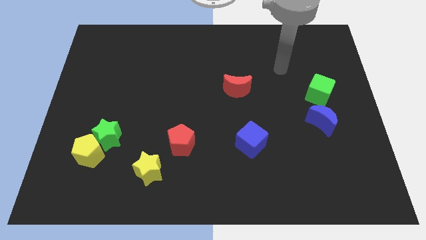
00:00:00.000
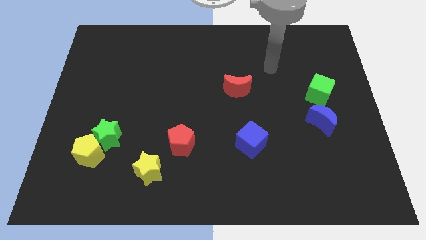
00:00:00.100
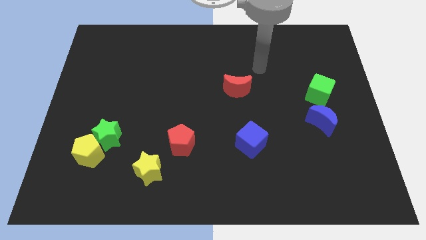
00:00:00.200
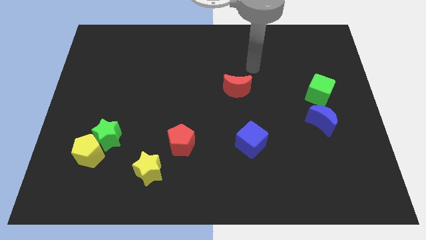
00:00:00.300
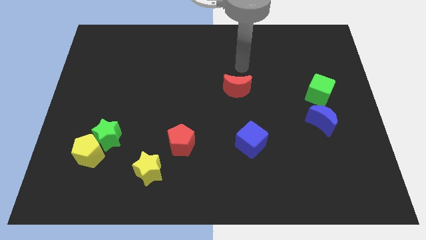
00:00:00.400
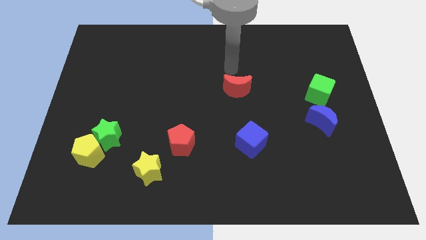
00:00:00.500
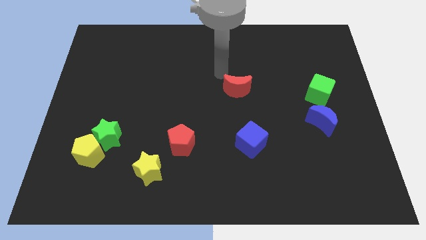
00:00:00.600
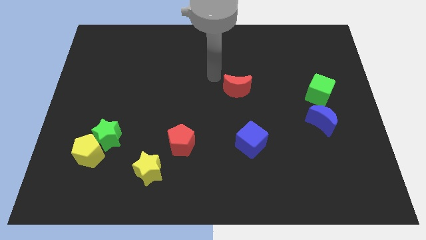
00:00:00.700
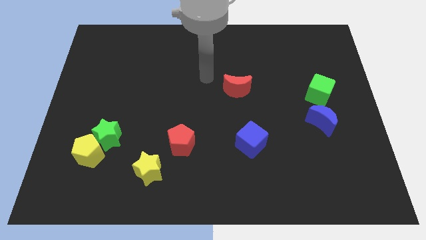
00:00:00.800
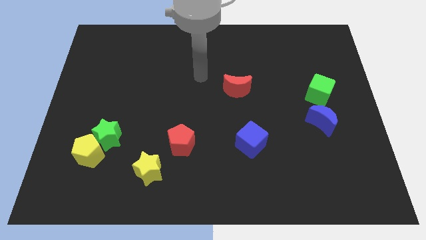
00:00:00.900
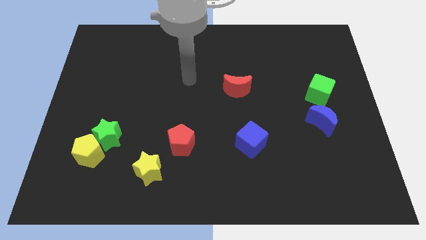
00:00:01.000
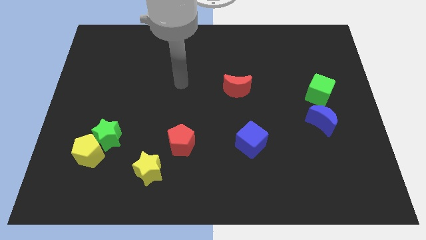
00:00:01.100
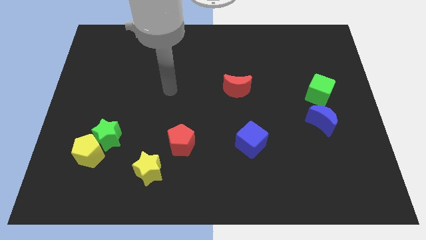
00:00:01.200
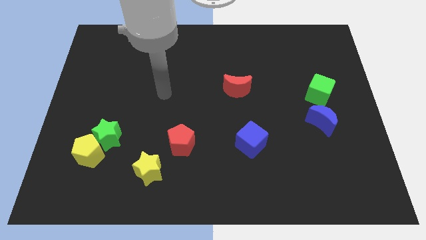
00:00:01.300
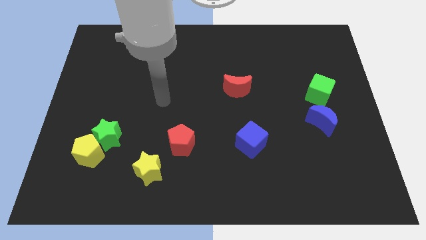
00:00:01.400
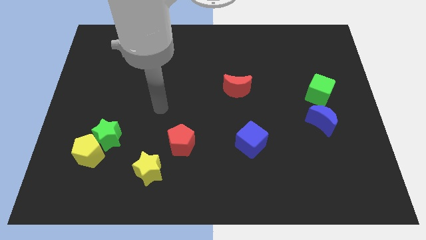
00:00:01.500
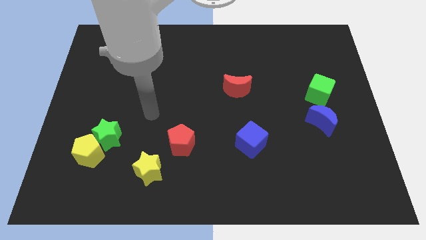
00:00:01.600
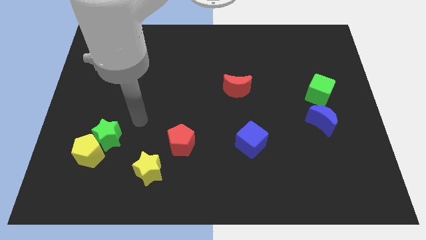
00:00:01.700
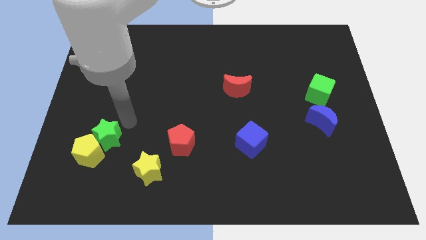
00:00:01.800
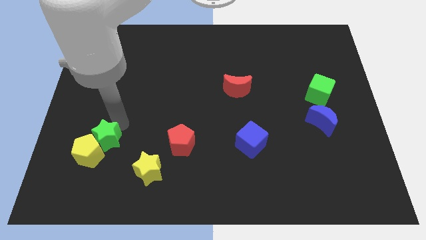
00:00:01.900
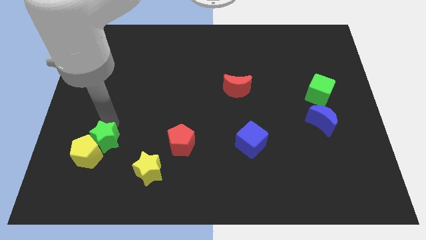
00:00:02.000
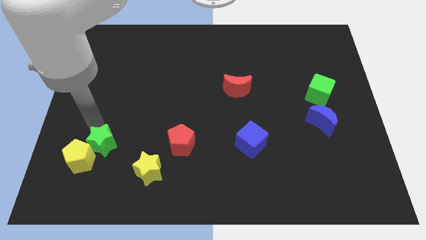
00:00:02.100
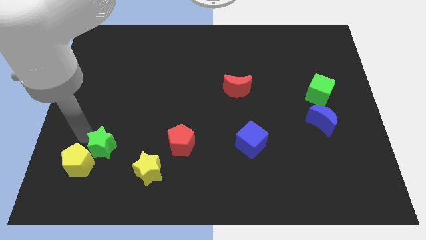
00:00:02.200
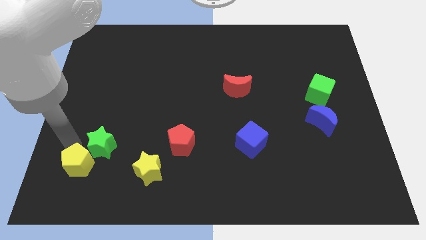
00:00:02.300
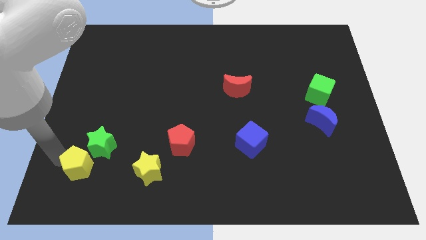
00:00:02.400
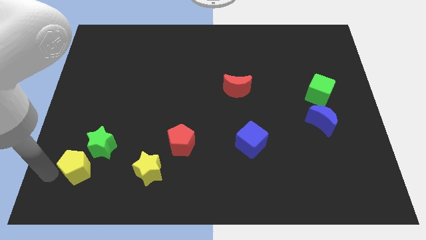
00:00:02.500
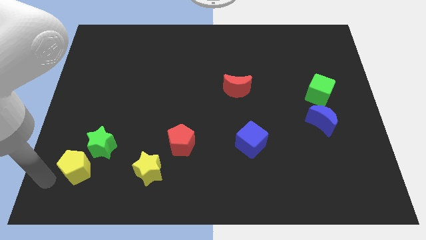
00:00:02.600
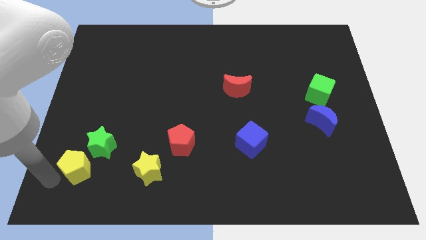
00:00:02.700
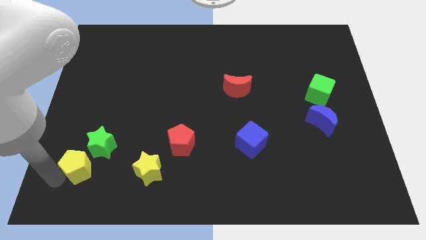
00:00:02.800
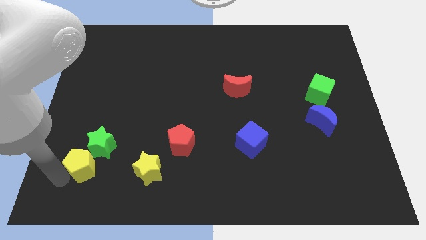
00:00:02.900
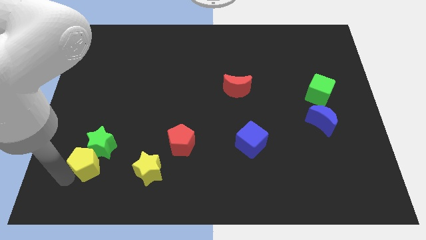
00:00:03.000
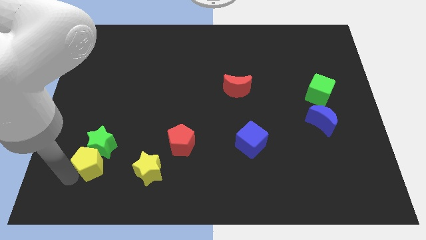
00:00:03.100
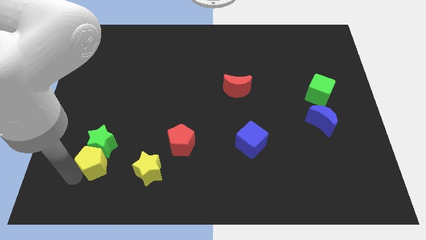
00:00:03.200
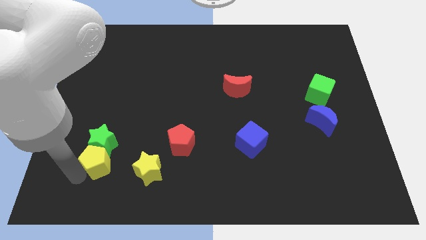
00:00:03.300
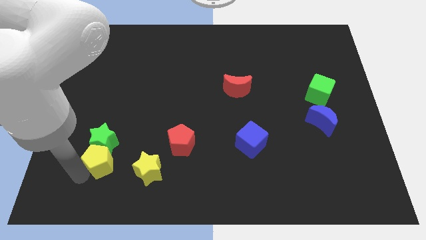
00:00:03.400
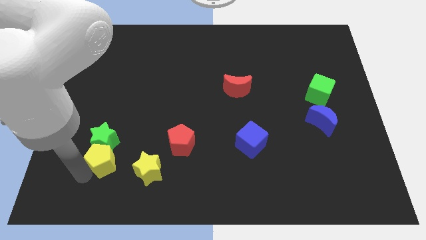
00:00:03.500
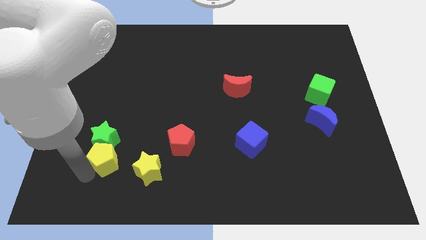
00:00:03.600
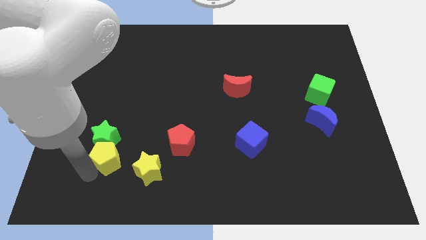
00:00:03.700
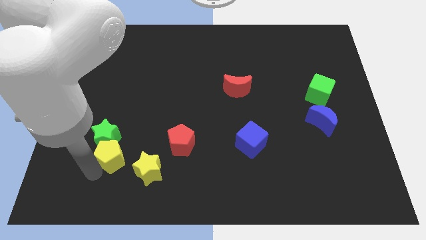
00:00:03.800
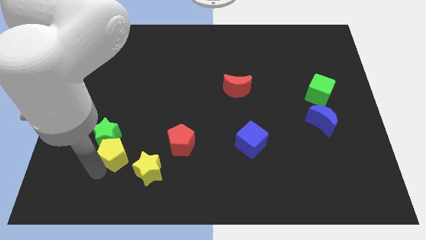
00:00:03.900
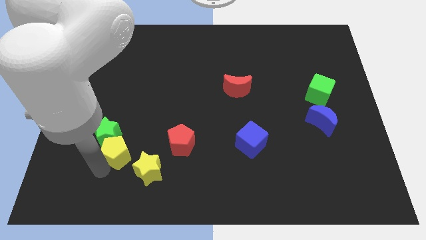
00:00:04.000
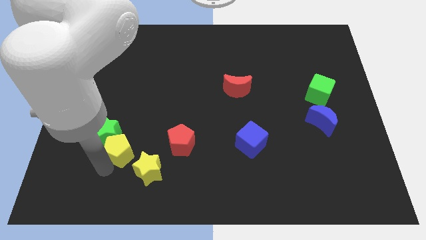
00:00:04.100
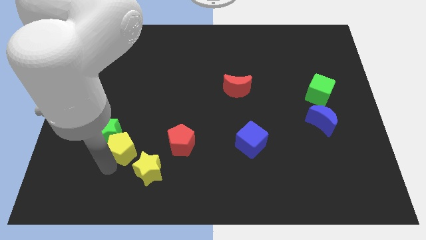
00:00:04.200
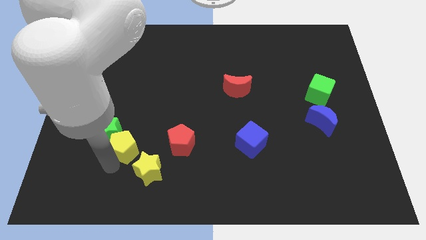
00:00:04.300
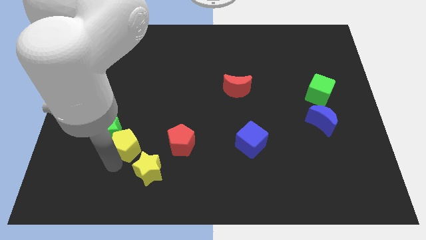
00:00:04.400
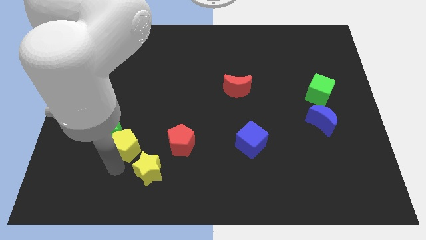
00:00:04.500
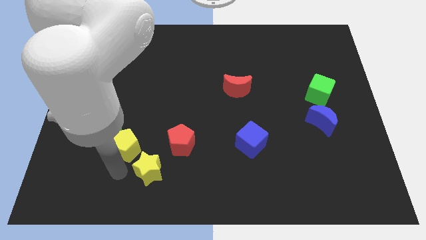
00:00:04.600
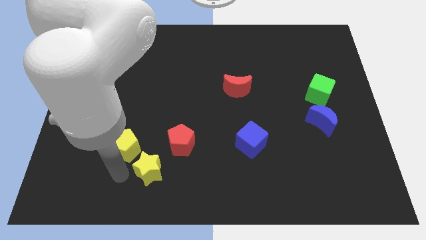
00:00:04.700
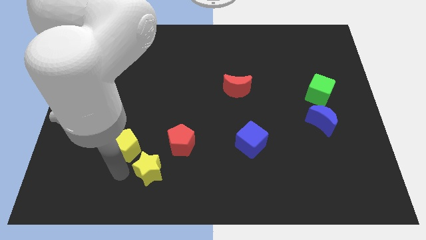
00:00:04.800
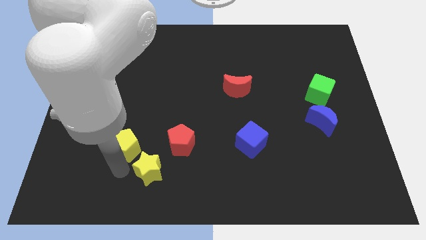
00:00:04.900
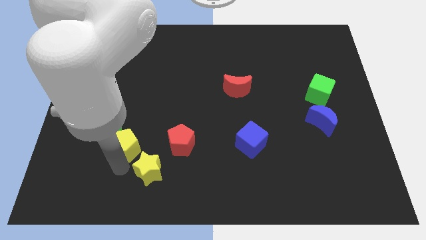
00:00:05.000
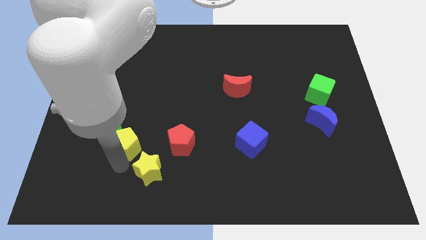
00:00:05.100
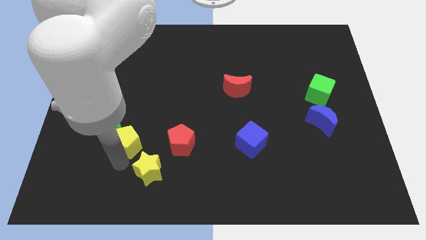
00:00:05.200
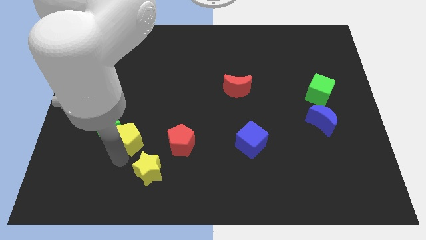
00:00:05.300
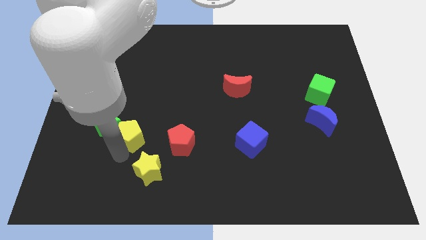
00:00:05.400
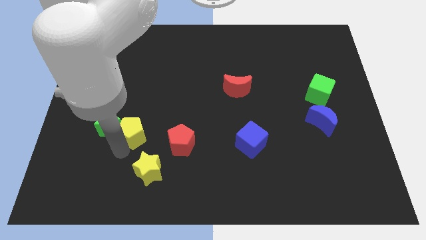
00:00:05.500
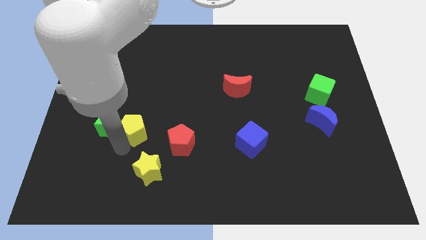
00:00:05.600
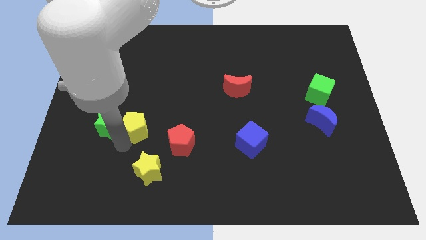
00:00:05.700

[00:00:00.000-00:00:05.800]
put the yellow pentagon to the top right of the green star

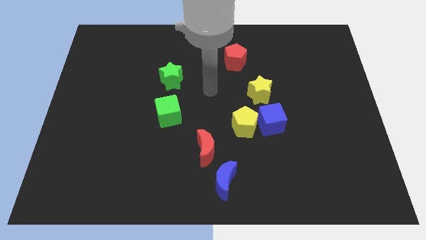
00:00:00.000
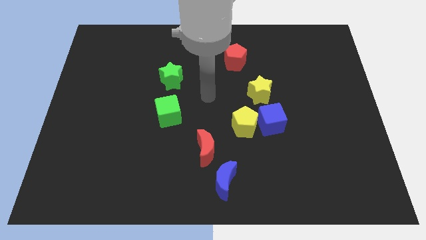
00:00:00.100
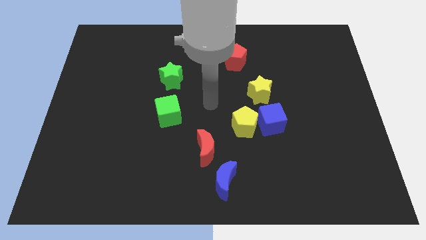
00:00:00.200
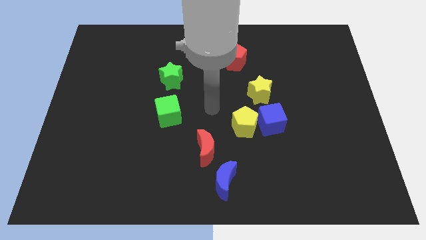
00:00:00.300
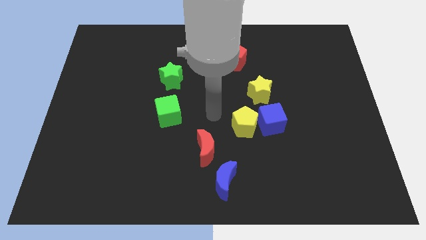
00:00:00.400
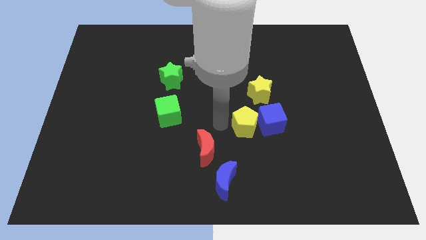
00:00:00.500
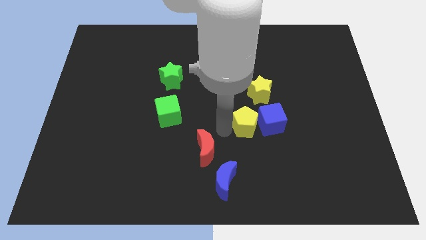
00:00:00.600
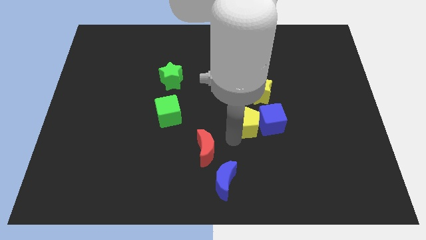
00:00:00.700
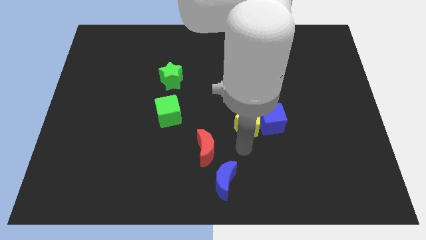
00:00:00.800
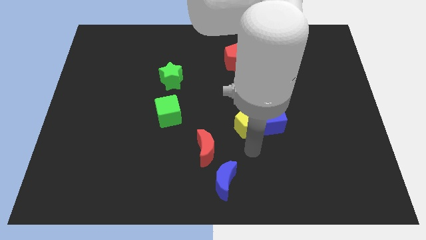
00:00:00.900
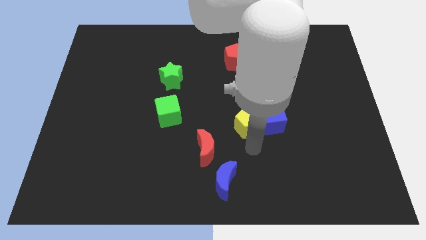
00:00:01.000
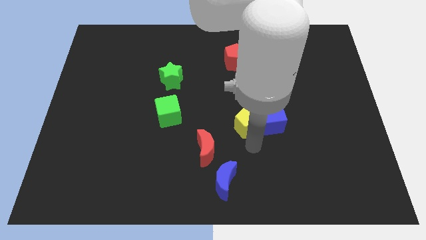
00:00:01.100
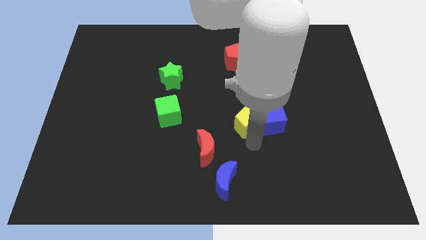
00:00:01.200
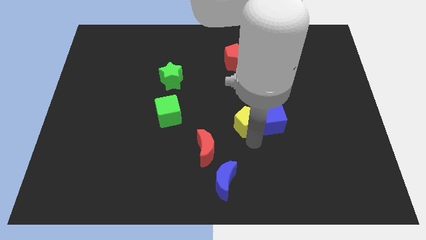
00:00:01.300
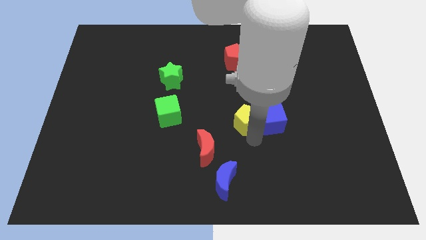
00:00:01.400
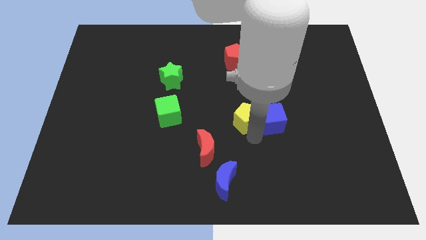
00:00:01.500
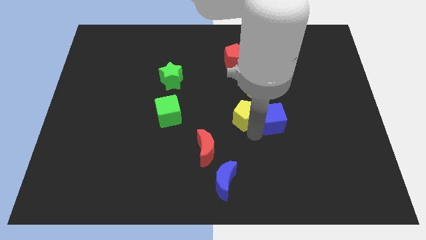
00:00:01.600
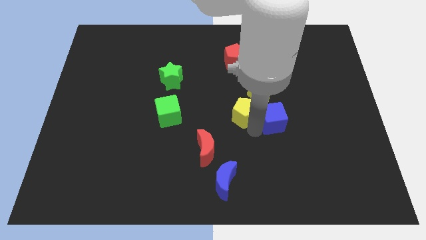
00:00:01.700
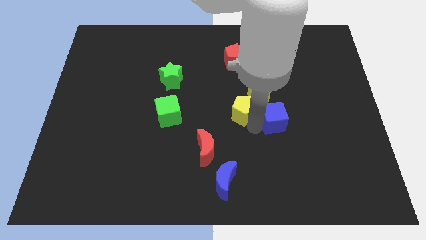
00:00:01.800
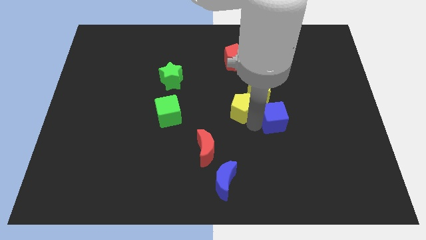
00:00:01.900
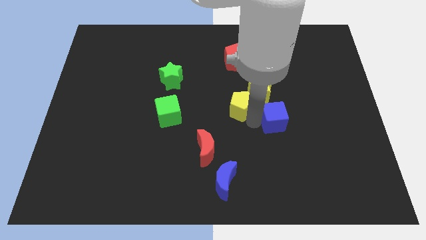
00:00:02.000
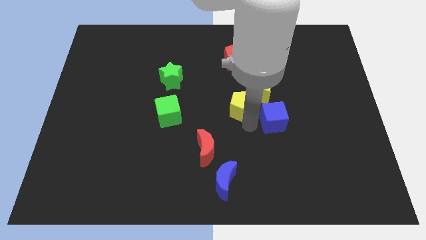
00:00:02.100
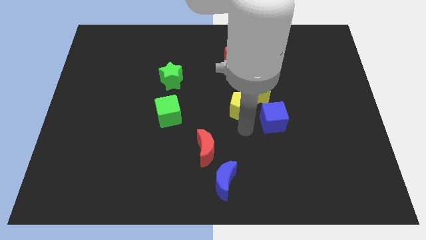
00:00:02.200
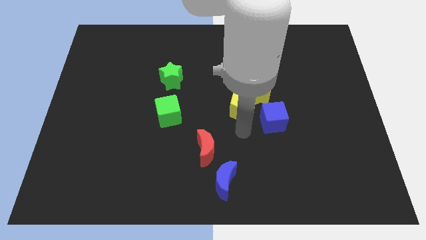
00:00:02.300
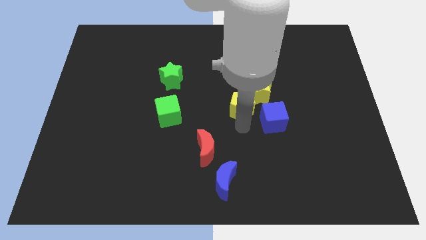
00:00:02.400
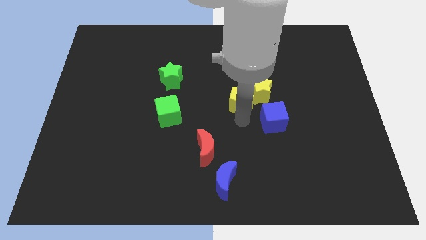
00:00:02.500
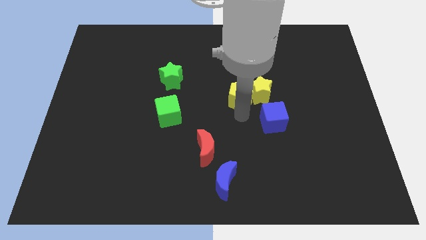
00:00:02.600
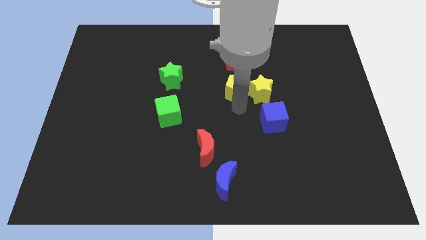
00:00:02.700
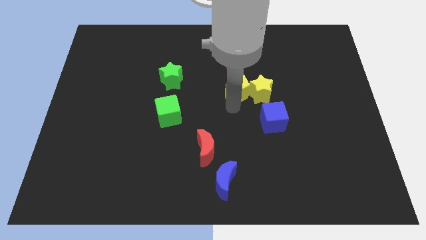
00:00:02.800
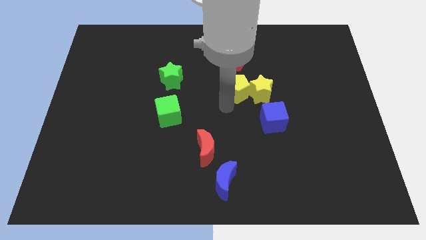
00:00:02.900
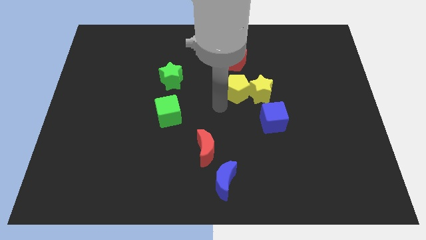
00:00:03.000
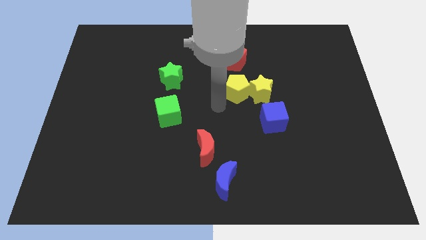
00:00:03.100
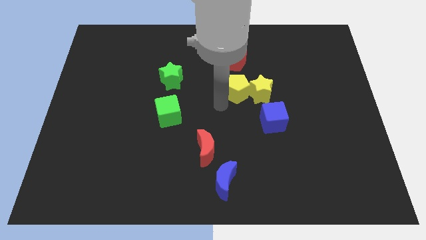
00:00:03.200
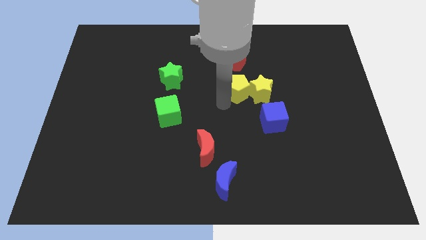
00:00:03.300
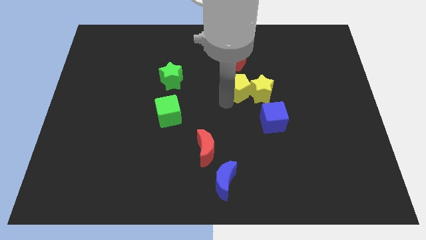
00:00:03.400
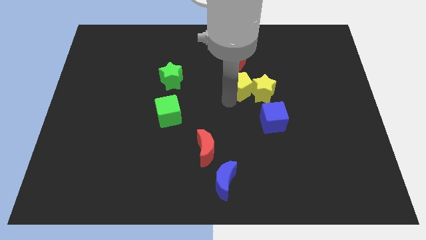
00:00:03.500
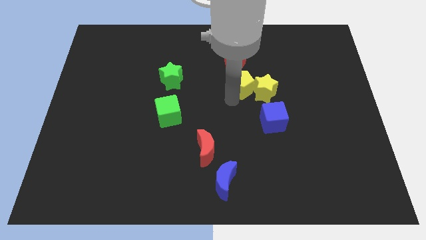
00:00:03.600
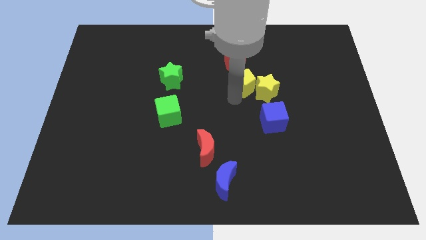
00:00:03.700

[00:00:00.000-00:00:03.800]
move the yellow pentagon diagonally down and to the right of the red pentagon
